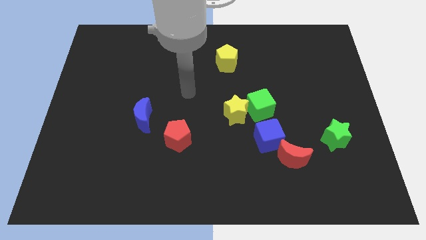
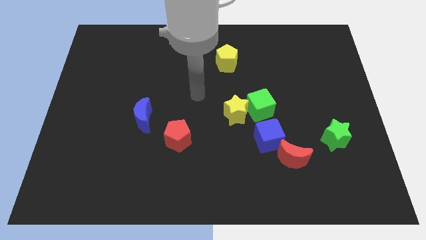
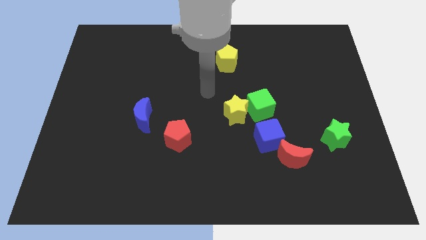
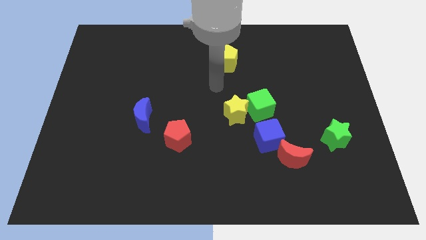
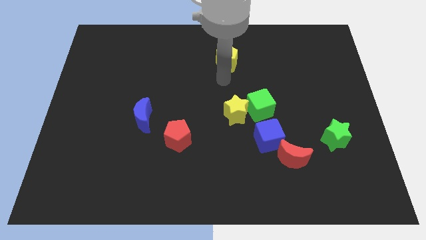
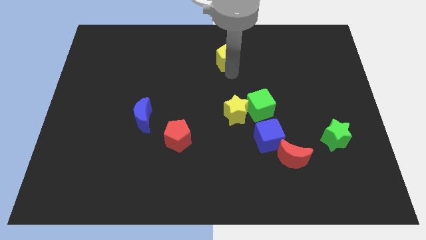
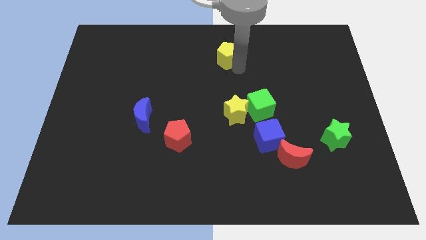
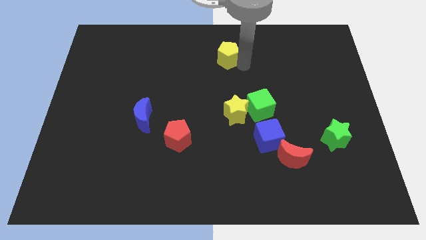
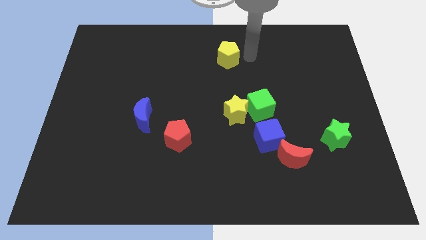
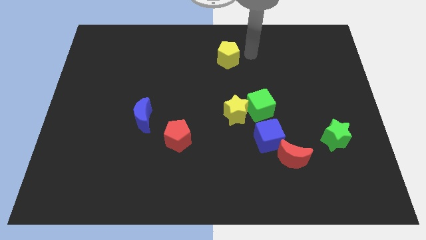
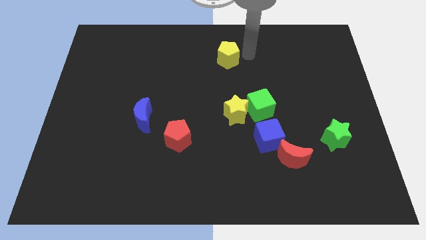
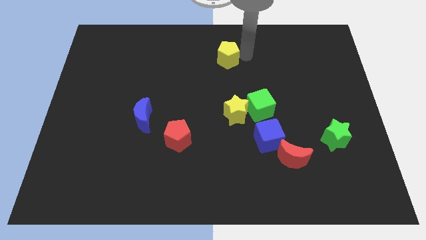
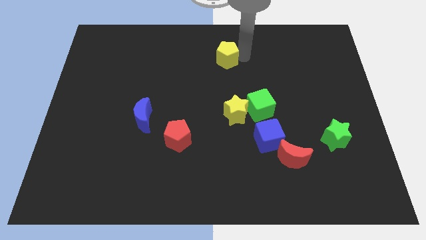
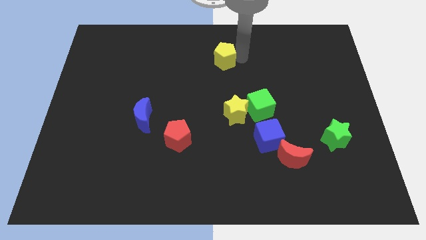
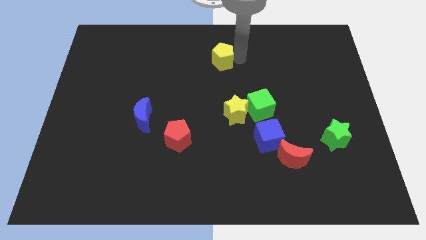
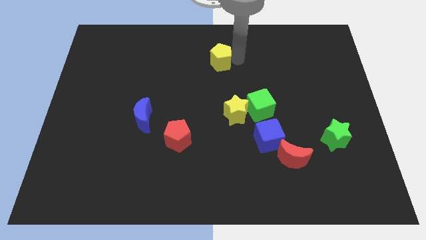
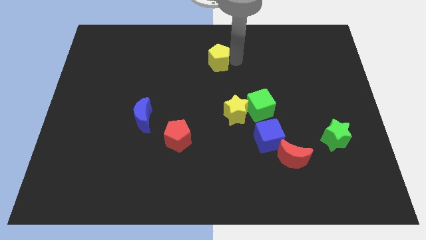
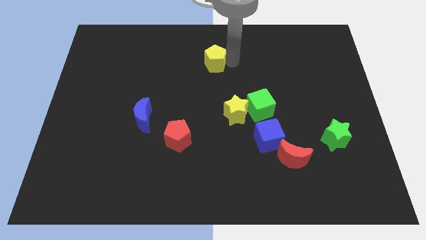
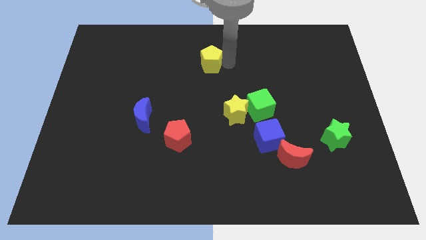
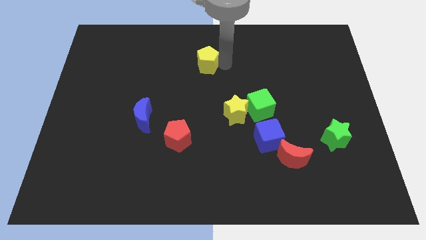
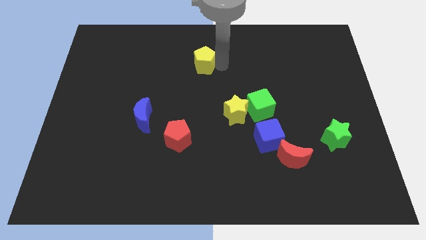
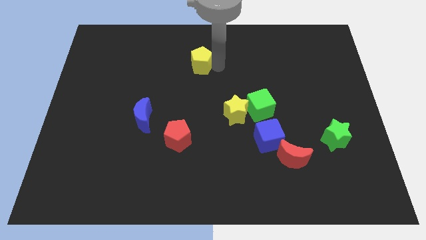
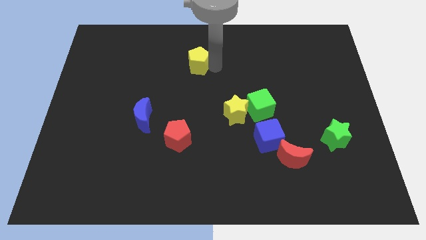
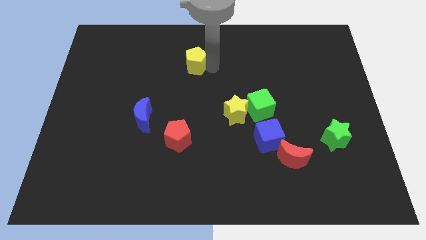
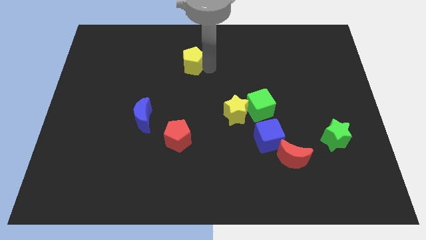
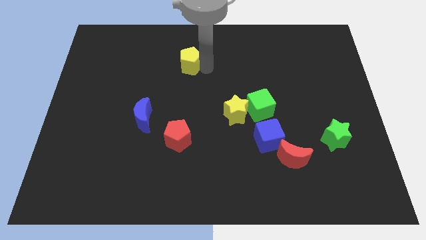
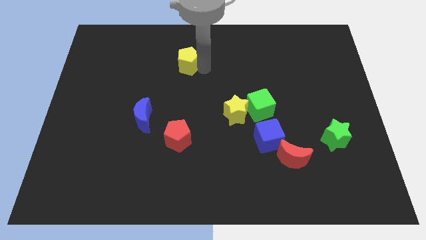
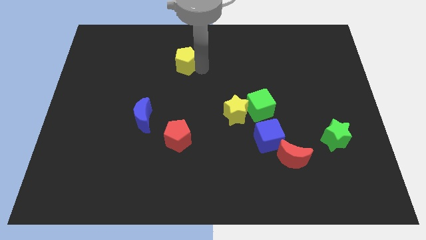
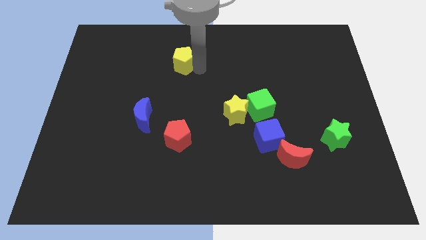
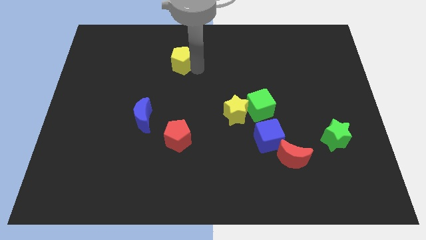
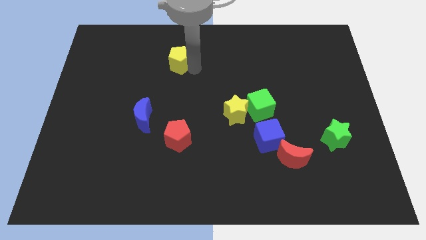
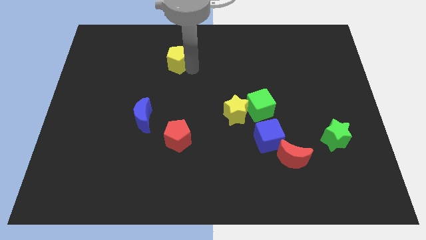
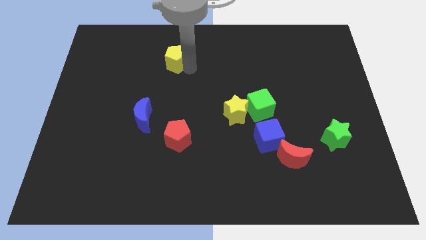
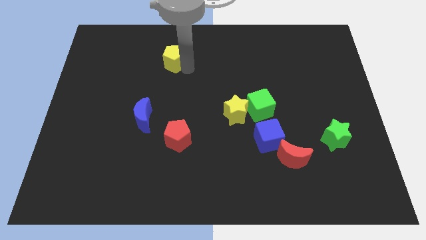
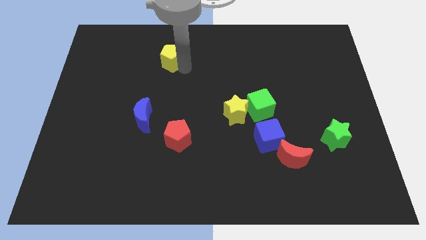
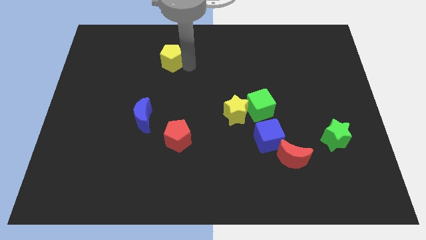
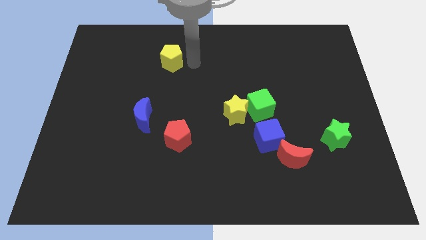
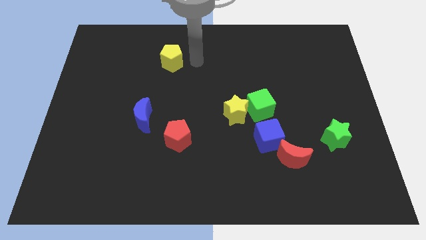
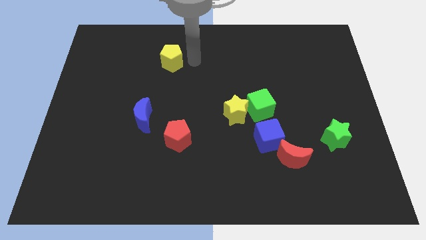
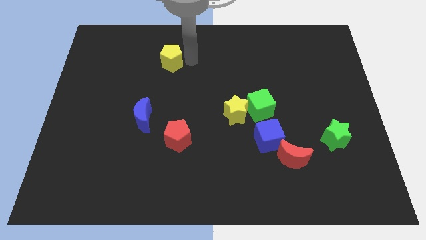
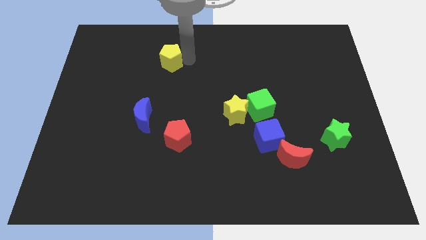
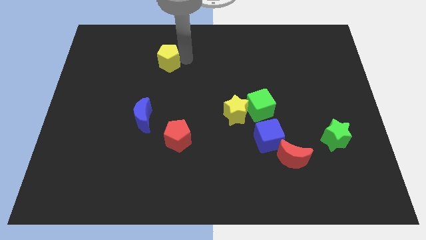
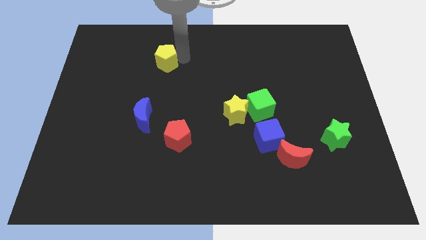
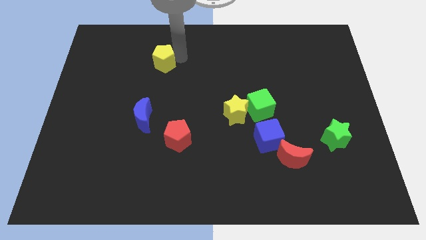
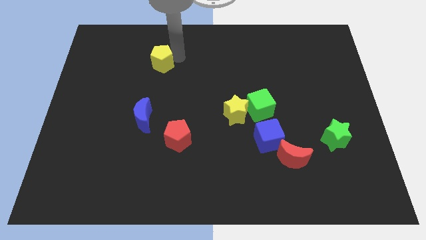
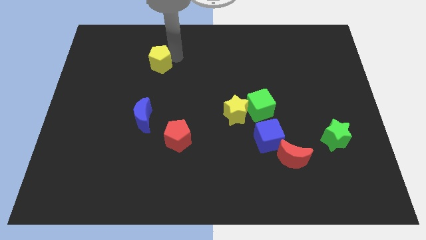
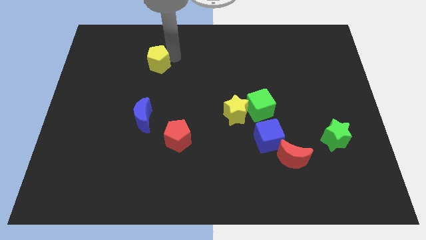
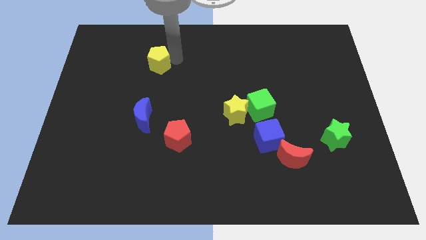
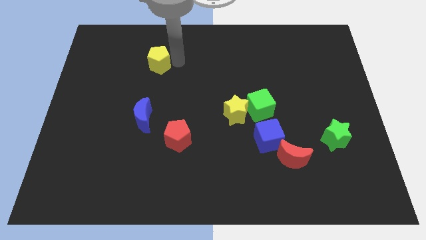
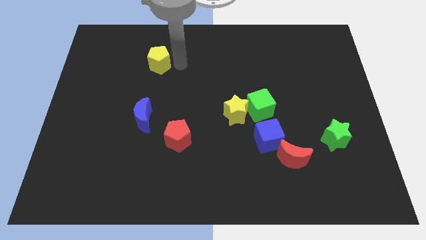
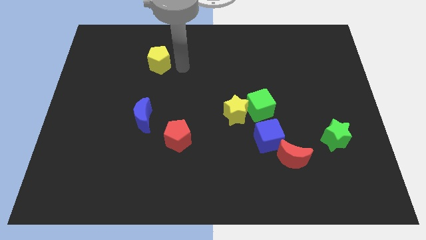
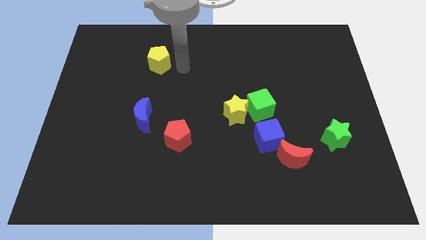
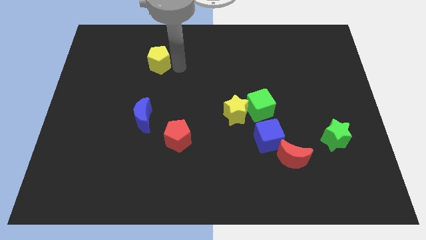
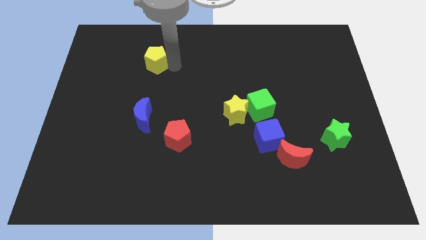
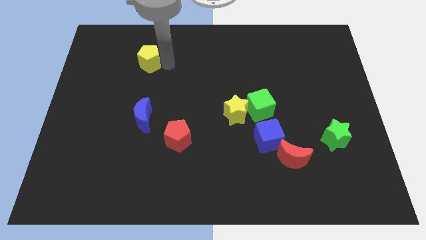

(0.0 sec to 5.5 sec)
move the yellow pentagon to the left

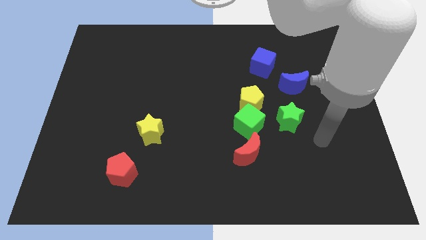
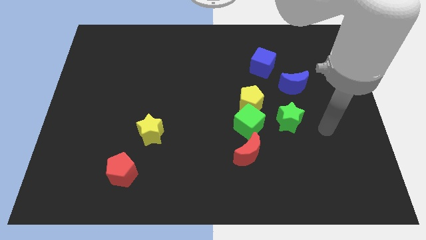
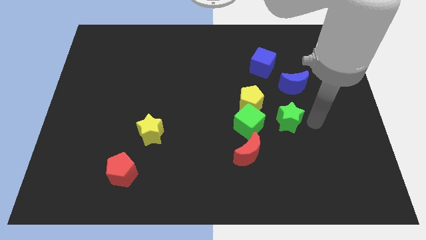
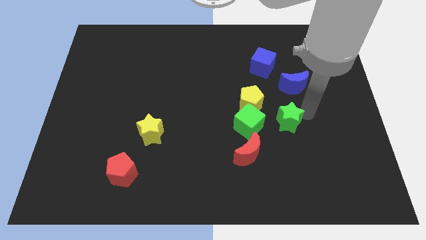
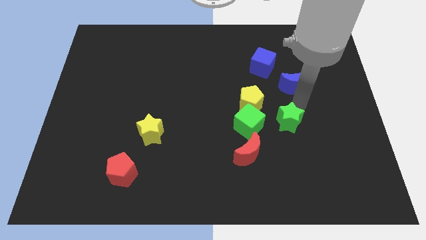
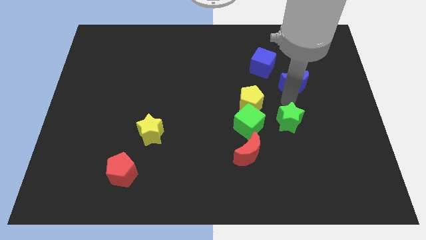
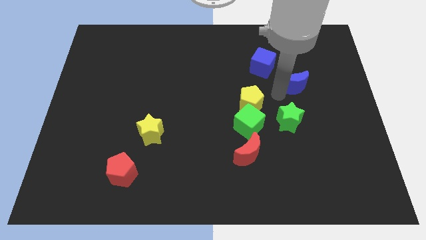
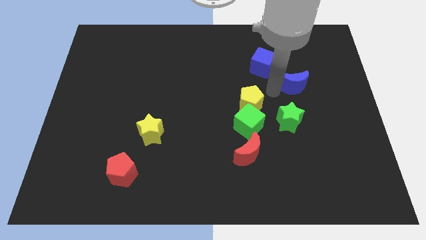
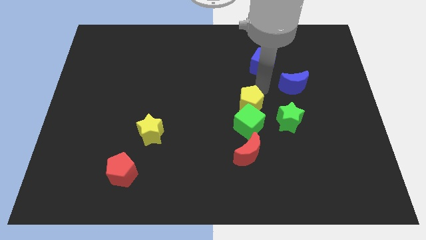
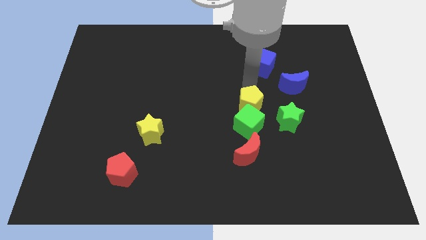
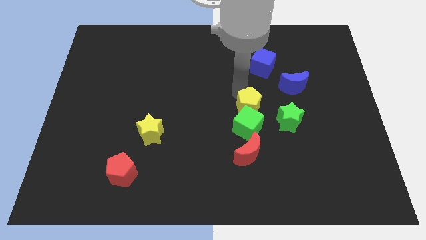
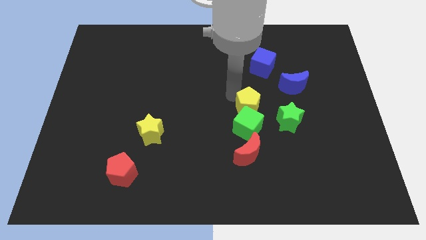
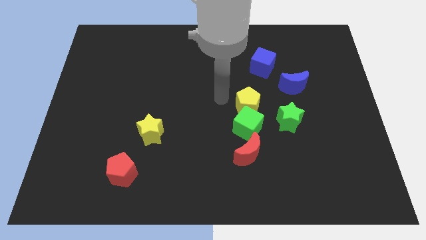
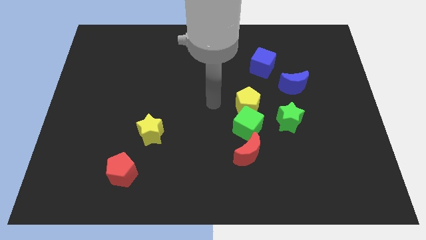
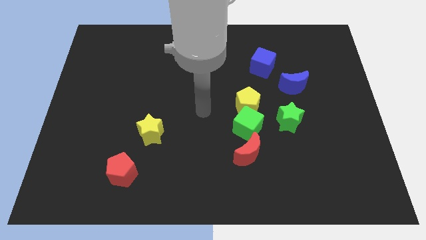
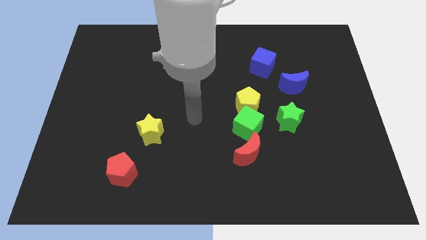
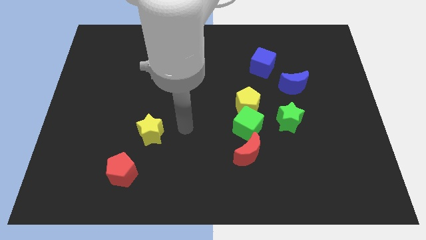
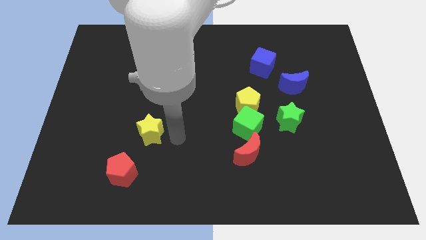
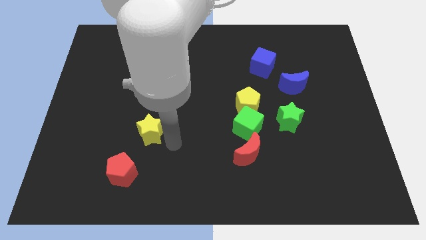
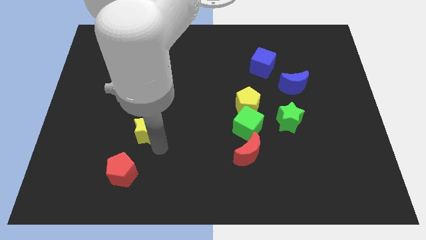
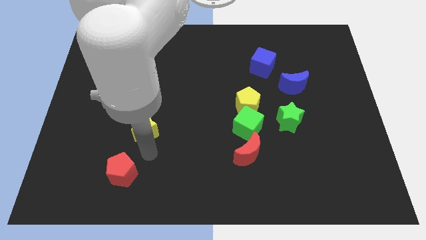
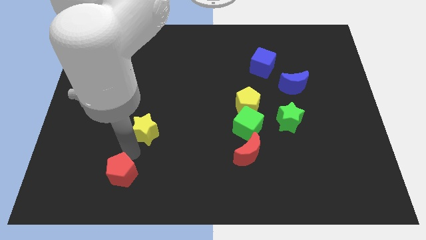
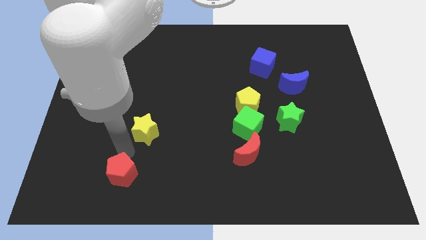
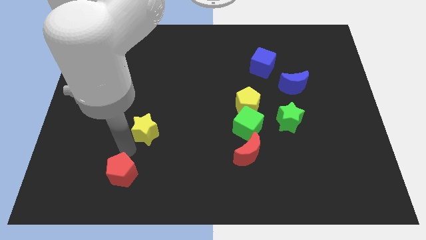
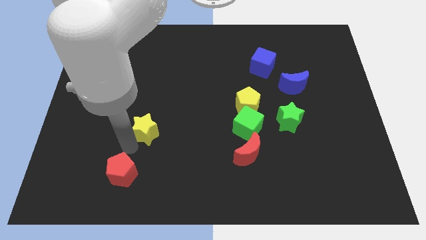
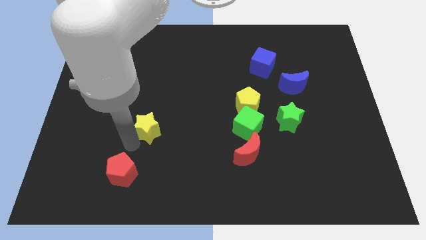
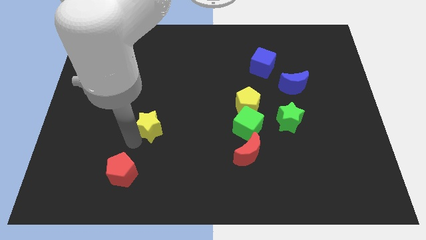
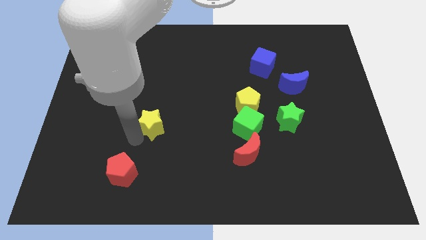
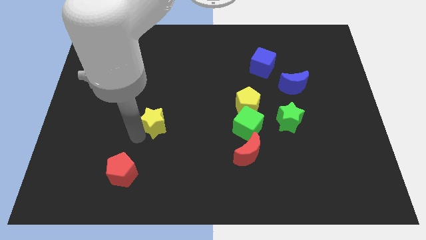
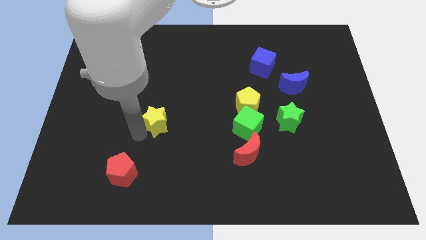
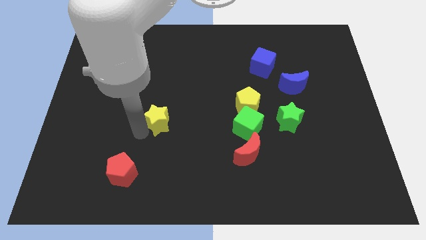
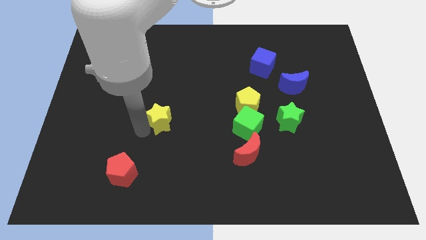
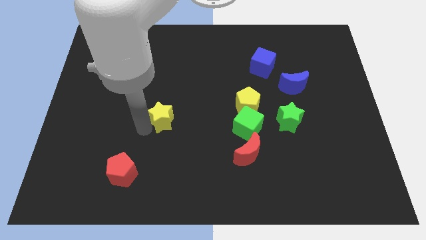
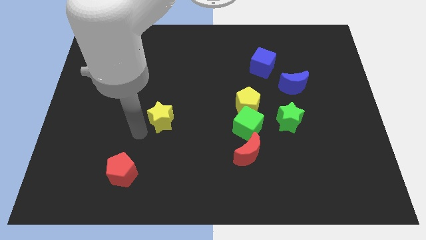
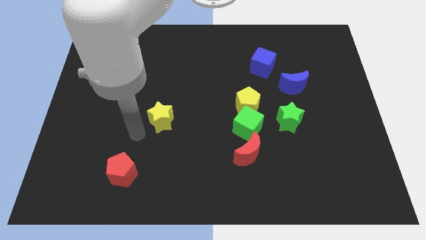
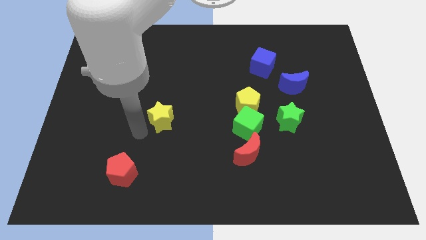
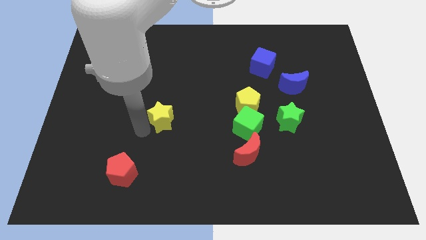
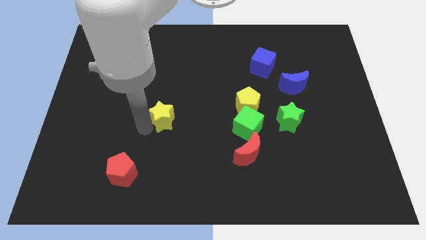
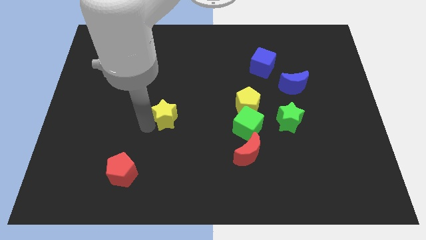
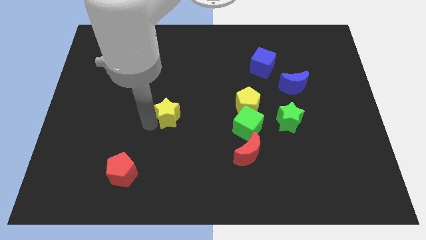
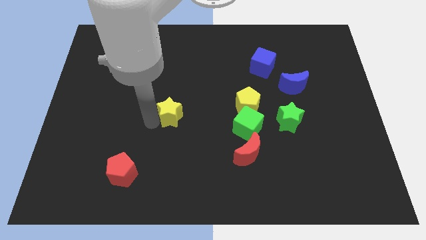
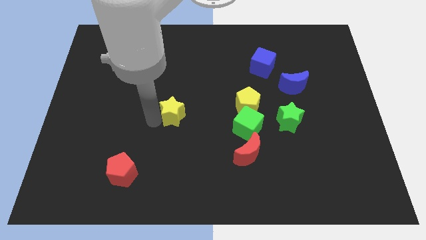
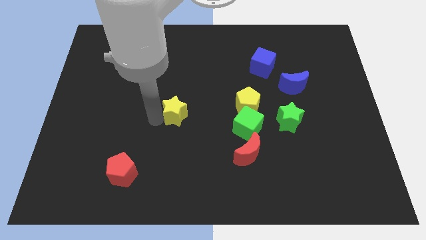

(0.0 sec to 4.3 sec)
push the yellow star slightly diagonally upwards and to the right
